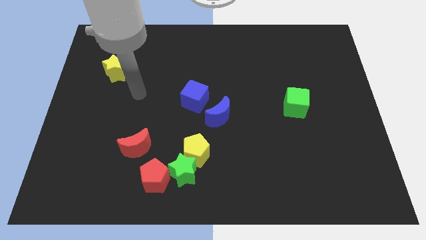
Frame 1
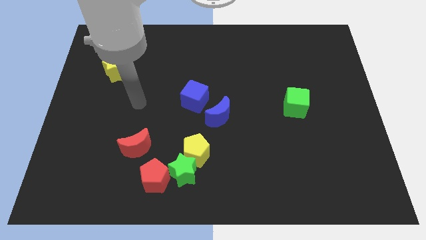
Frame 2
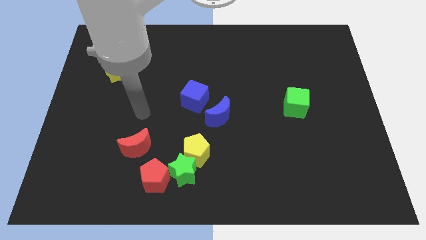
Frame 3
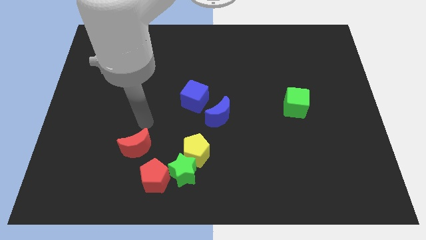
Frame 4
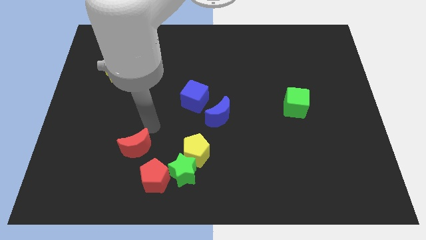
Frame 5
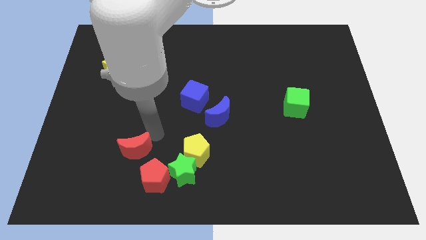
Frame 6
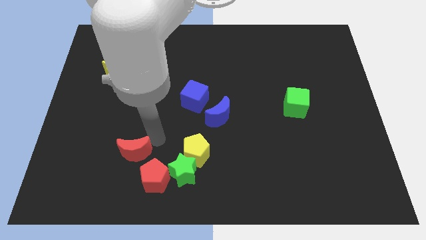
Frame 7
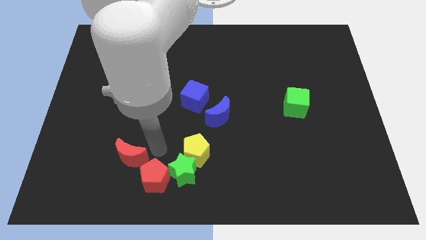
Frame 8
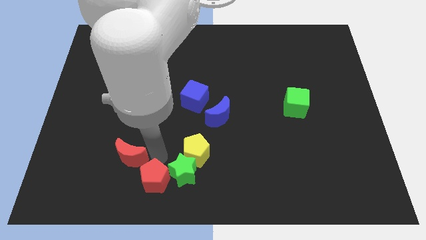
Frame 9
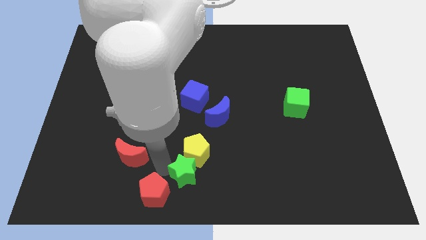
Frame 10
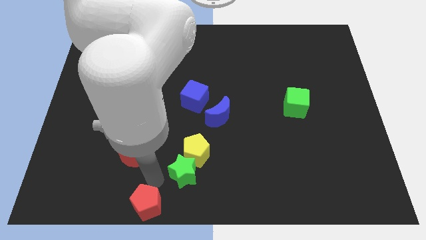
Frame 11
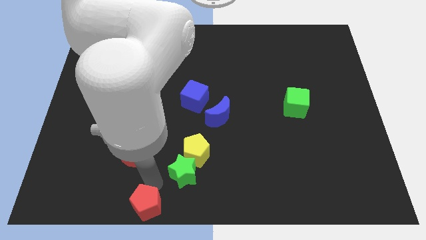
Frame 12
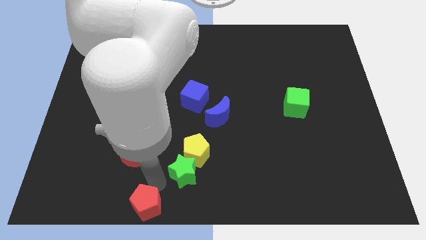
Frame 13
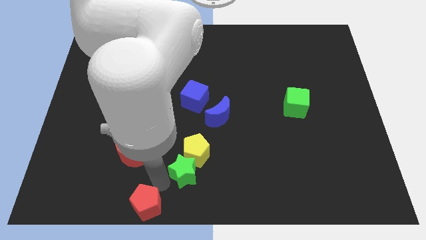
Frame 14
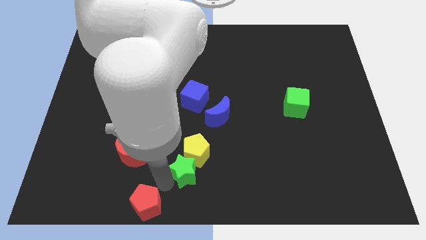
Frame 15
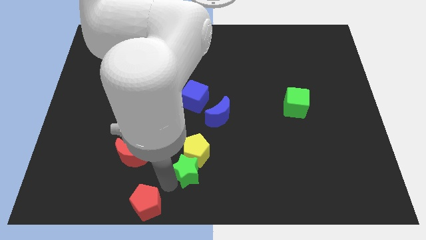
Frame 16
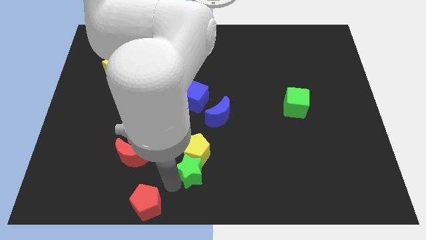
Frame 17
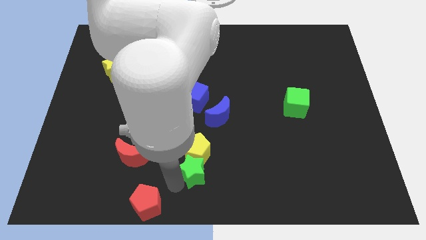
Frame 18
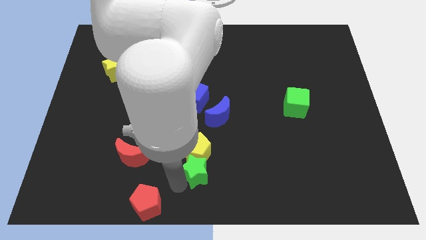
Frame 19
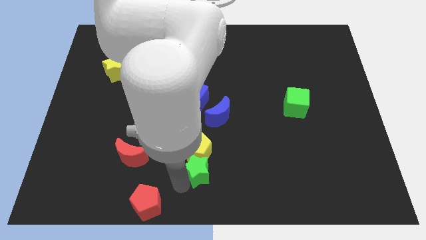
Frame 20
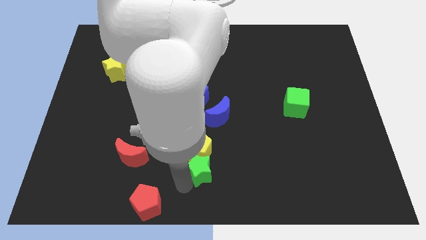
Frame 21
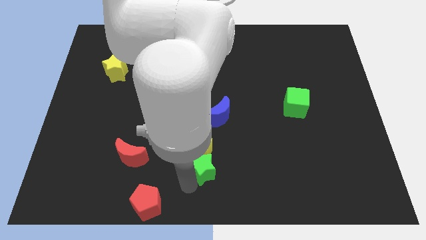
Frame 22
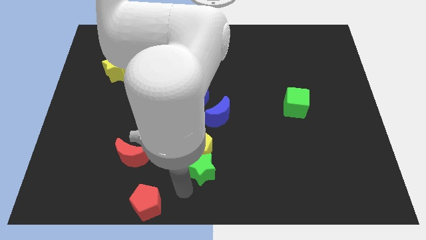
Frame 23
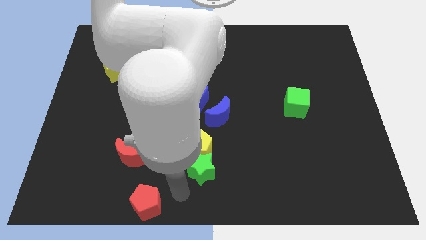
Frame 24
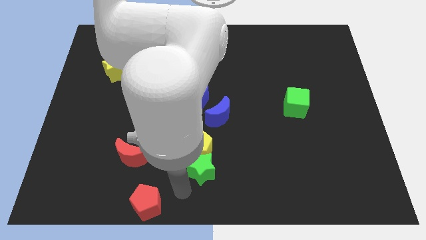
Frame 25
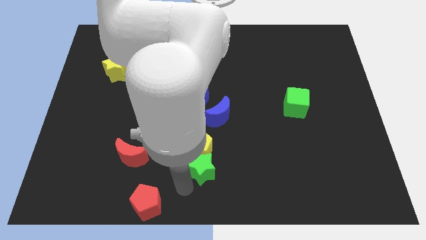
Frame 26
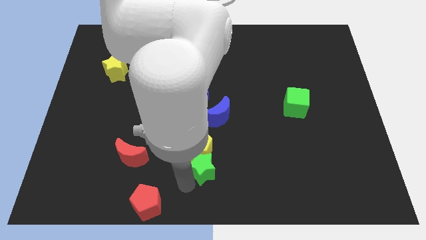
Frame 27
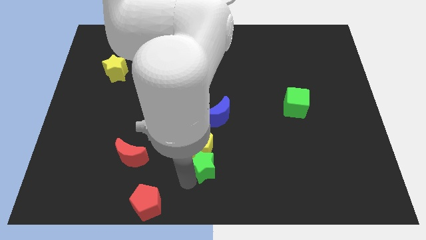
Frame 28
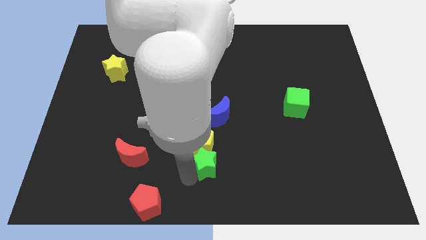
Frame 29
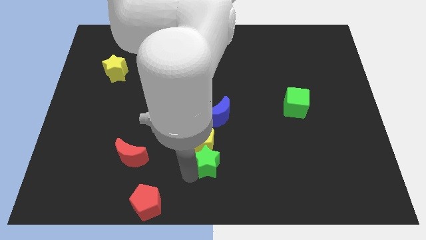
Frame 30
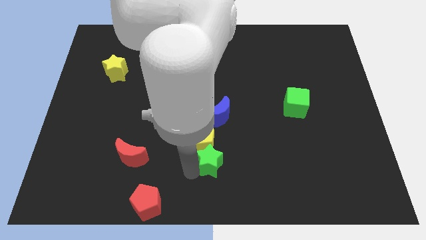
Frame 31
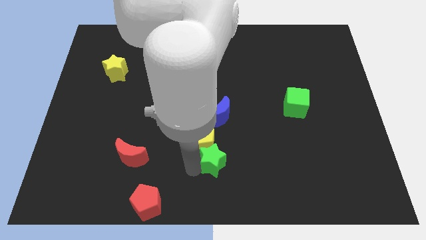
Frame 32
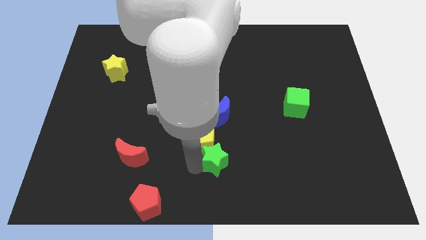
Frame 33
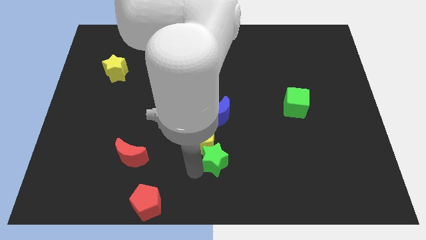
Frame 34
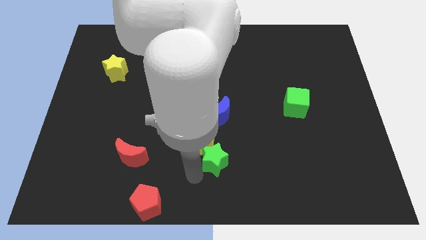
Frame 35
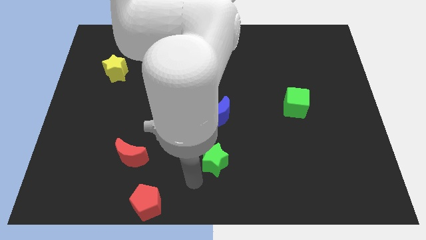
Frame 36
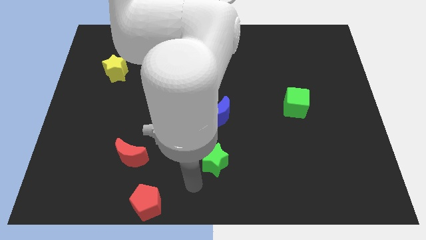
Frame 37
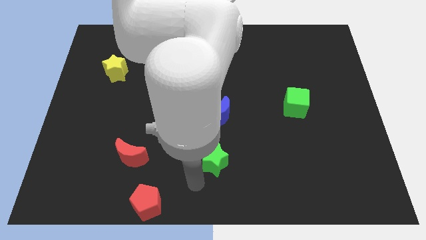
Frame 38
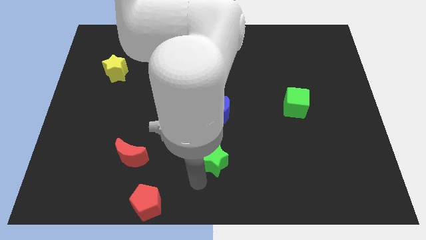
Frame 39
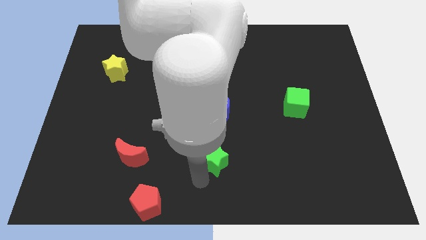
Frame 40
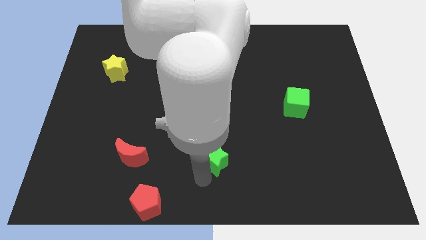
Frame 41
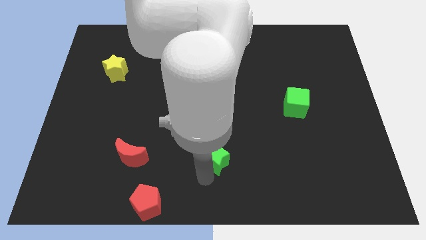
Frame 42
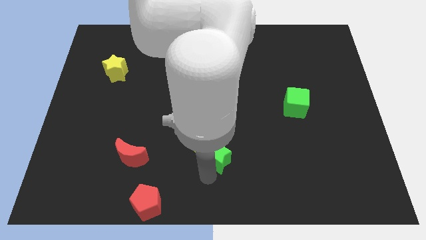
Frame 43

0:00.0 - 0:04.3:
slightly push the green star upwards and right diagonally

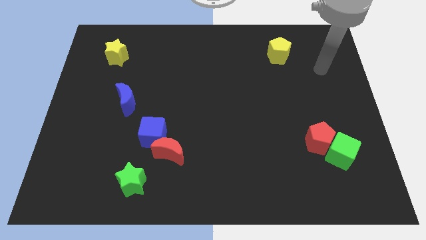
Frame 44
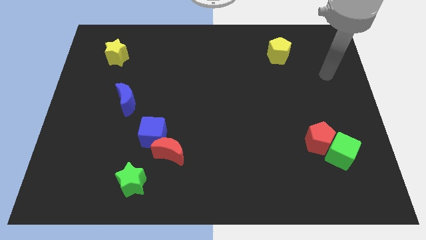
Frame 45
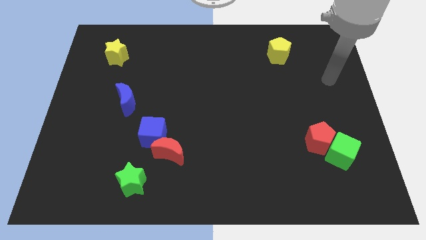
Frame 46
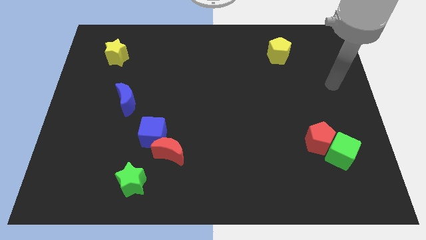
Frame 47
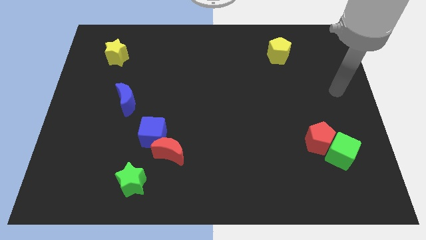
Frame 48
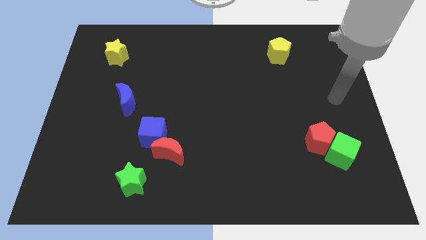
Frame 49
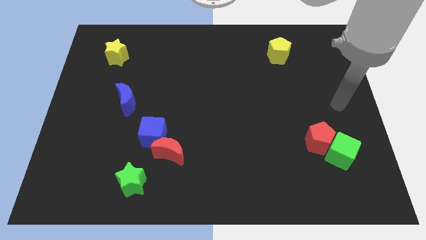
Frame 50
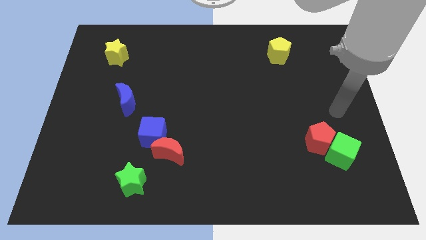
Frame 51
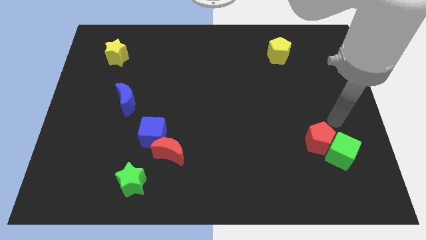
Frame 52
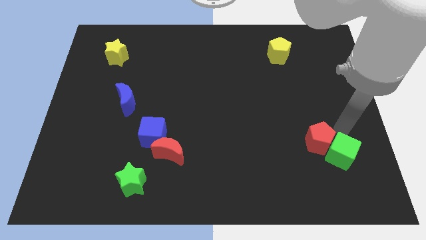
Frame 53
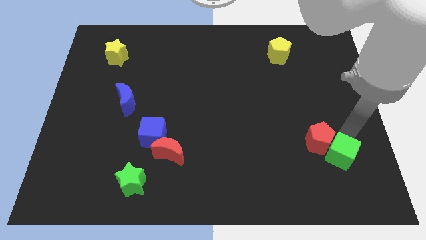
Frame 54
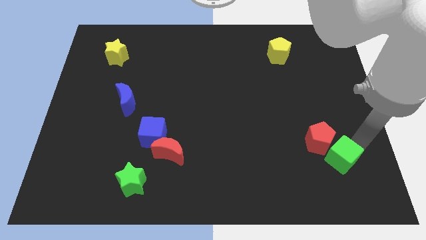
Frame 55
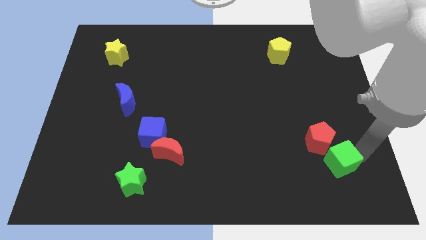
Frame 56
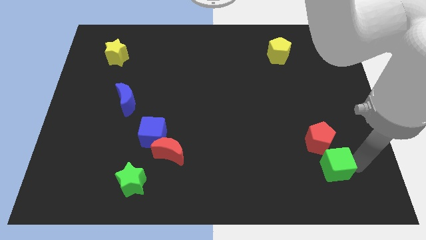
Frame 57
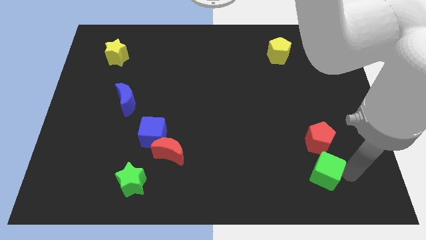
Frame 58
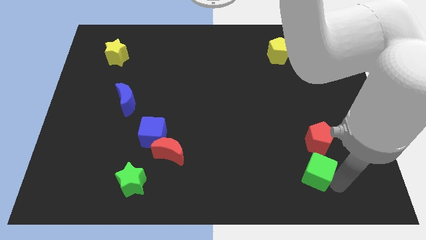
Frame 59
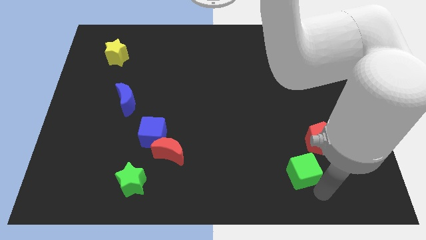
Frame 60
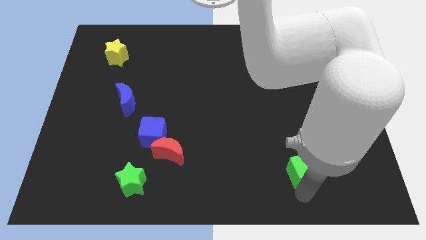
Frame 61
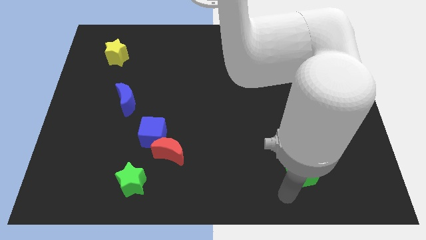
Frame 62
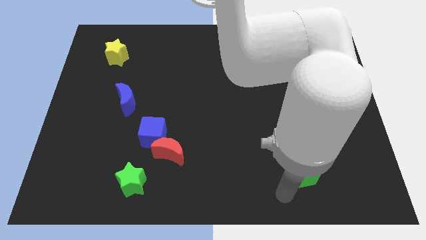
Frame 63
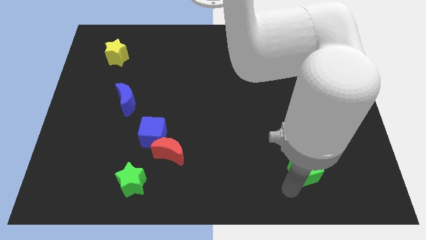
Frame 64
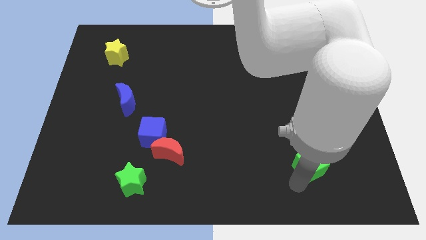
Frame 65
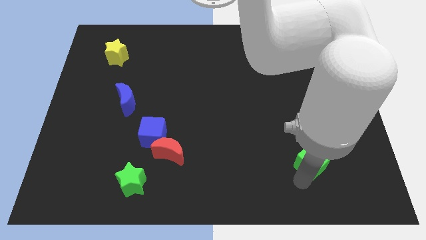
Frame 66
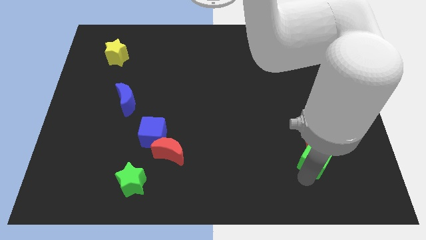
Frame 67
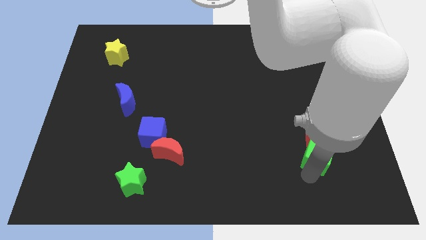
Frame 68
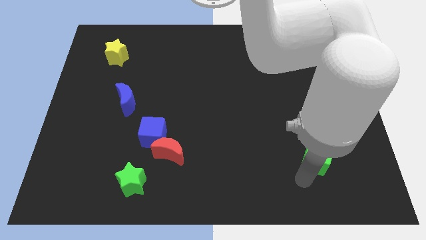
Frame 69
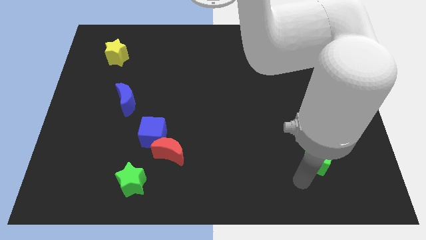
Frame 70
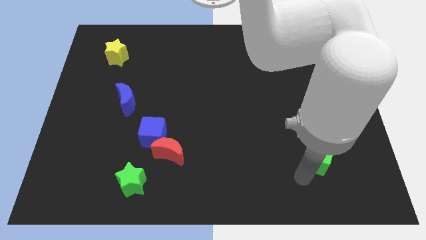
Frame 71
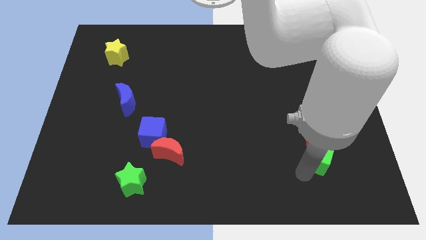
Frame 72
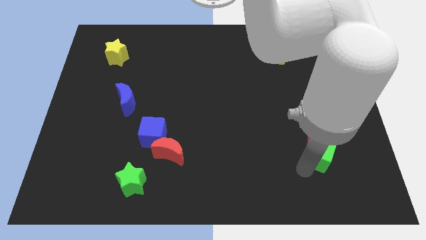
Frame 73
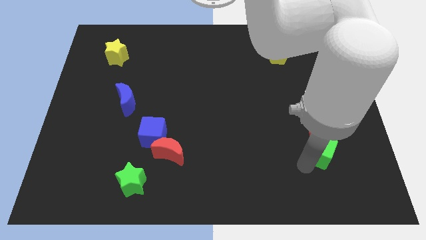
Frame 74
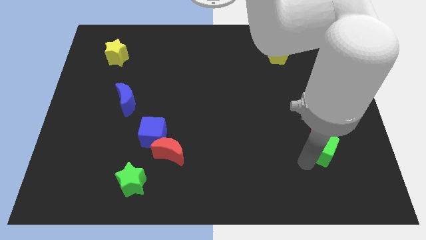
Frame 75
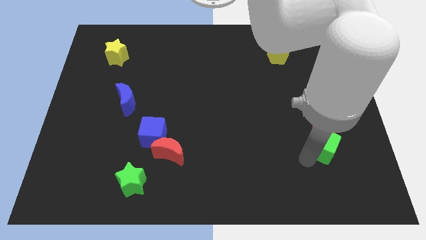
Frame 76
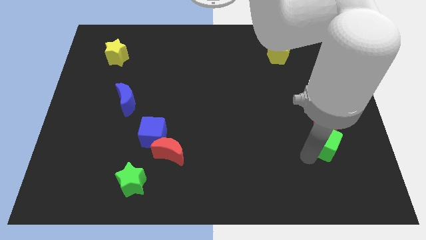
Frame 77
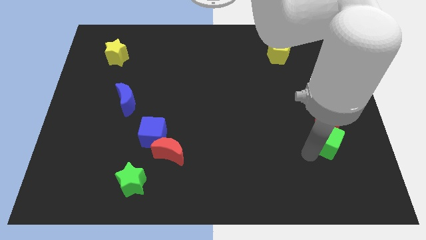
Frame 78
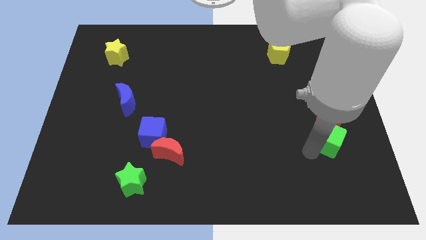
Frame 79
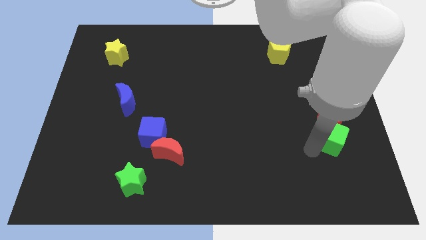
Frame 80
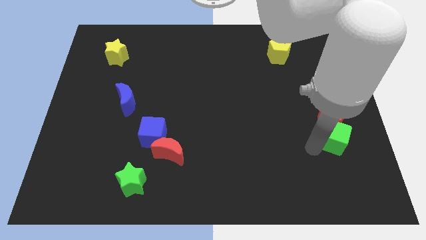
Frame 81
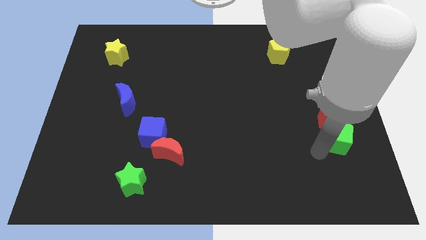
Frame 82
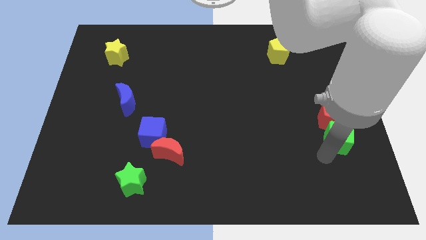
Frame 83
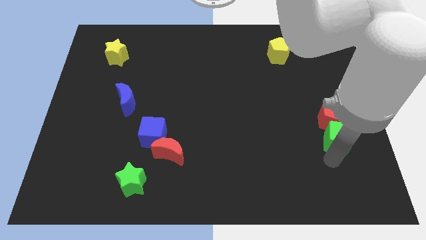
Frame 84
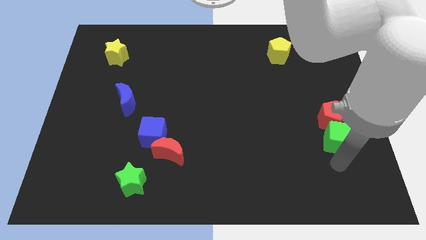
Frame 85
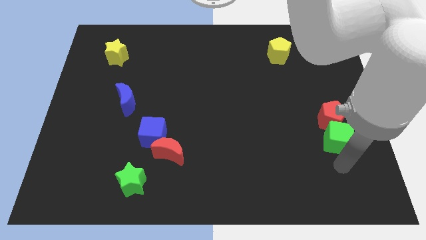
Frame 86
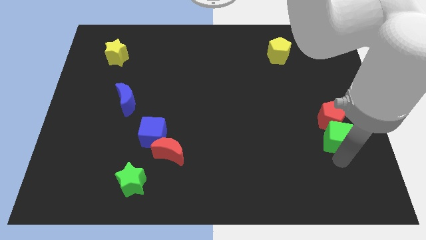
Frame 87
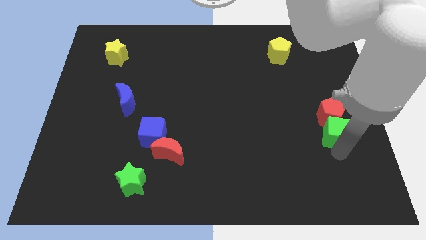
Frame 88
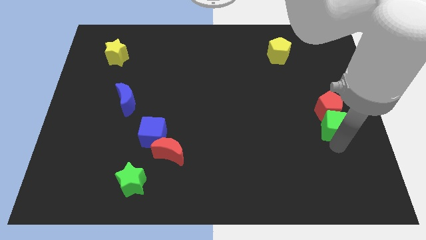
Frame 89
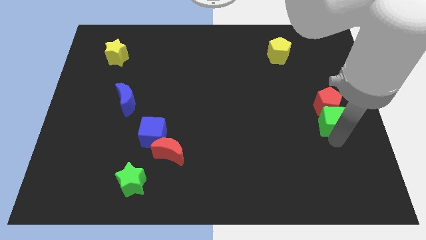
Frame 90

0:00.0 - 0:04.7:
slightly move the green cube upwards
